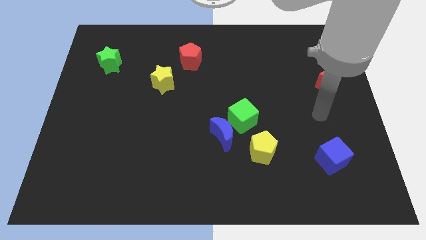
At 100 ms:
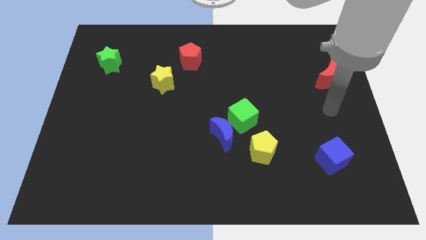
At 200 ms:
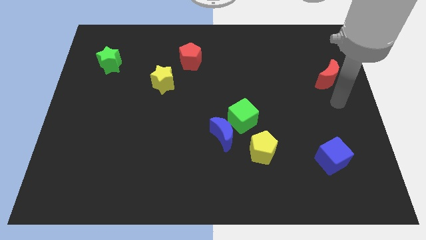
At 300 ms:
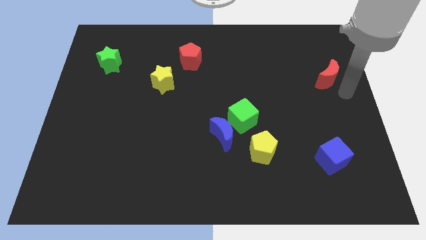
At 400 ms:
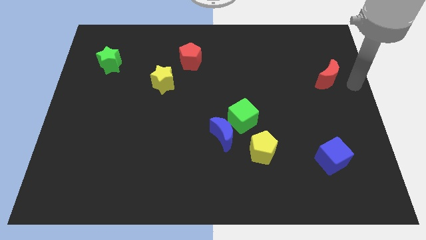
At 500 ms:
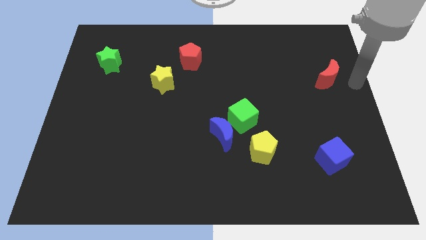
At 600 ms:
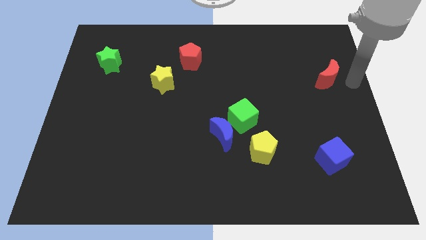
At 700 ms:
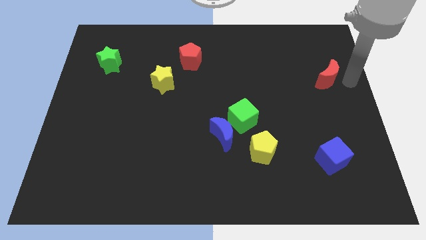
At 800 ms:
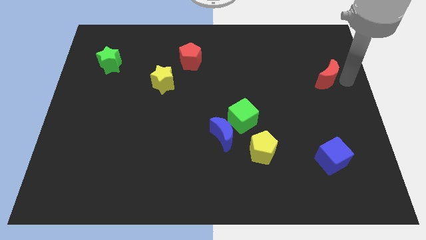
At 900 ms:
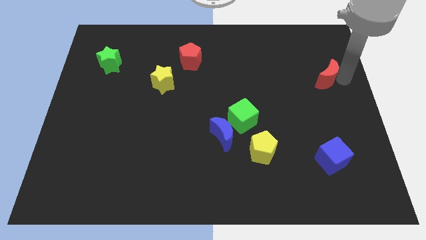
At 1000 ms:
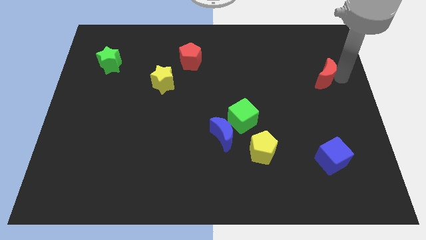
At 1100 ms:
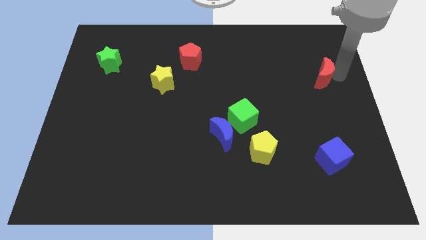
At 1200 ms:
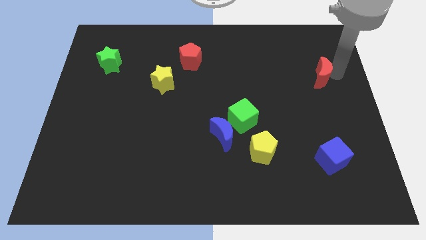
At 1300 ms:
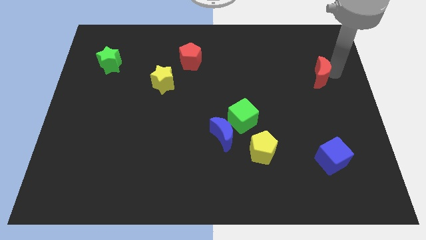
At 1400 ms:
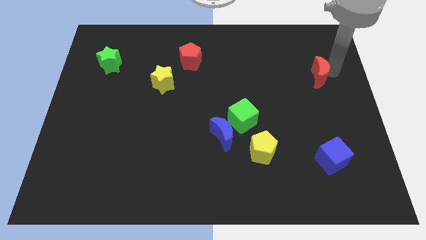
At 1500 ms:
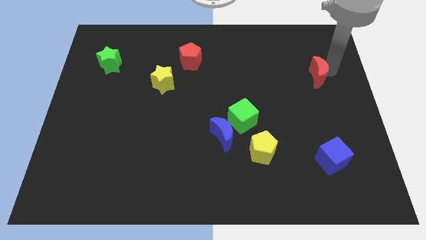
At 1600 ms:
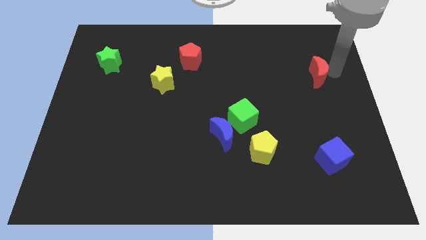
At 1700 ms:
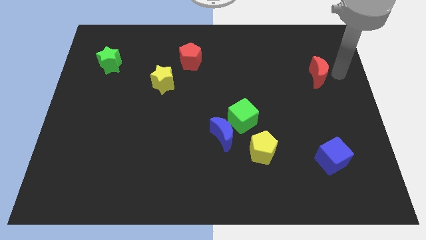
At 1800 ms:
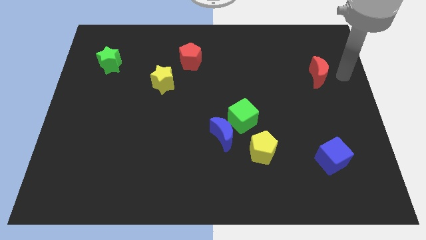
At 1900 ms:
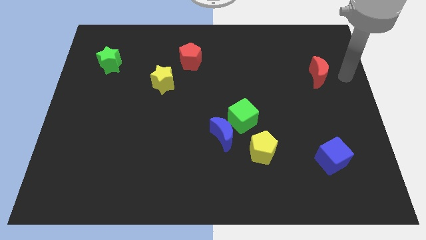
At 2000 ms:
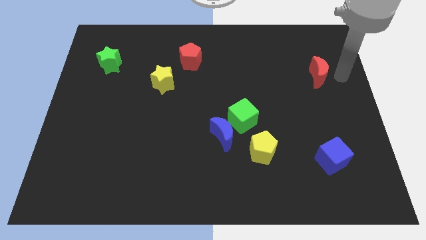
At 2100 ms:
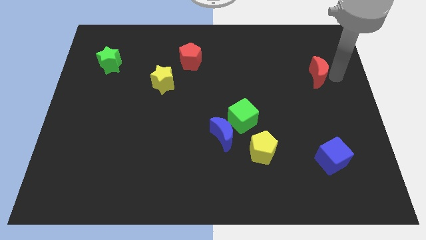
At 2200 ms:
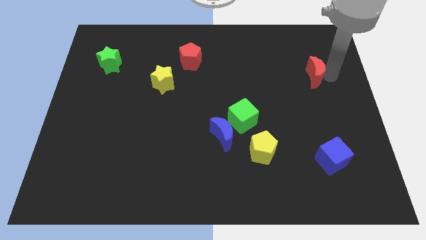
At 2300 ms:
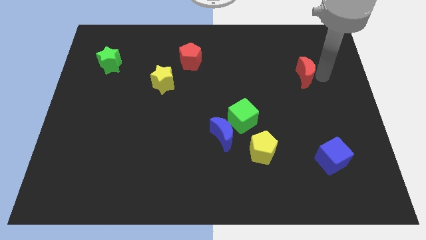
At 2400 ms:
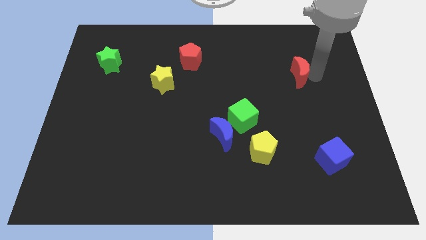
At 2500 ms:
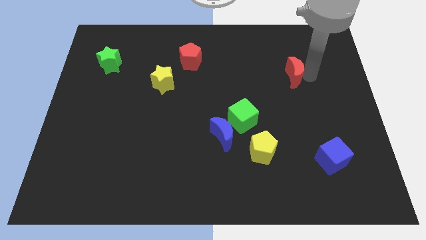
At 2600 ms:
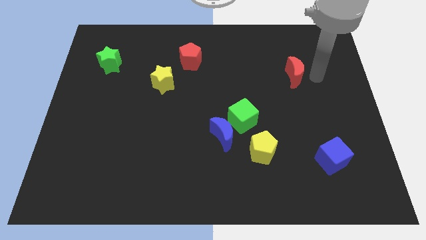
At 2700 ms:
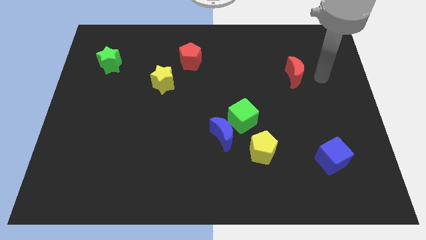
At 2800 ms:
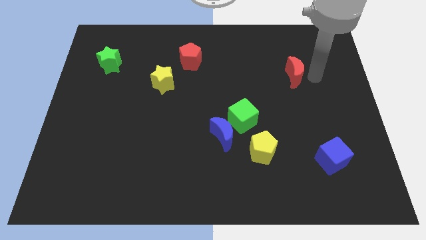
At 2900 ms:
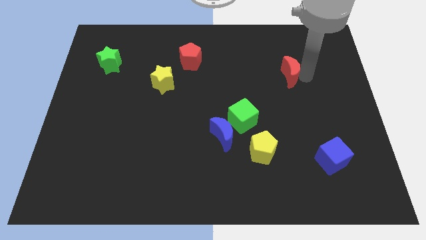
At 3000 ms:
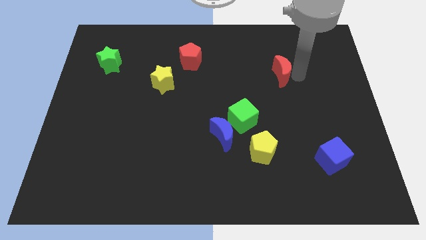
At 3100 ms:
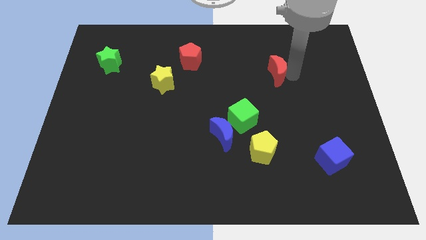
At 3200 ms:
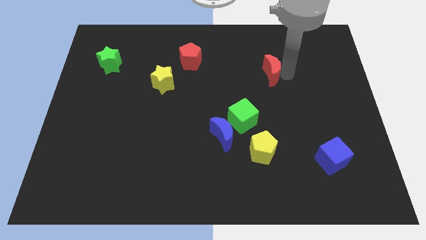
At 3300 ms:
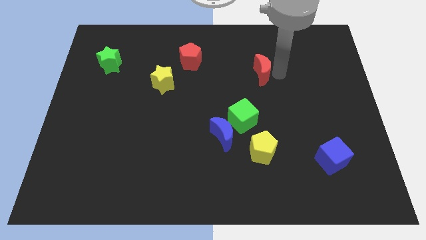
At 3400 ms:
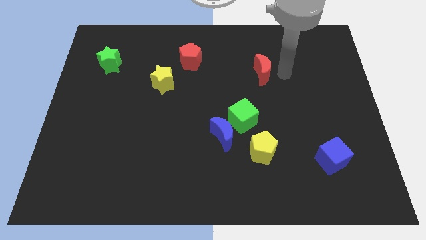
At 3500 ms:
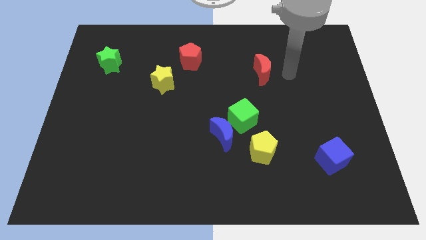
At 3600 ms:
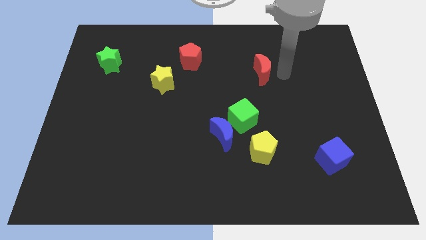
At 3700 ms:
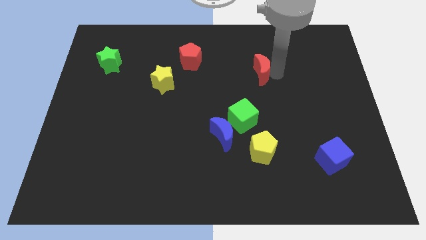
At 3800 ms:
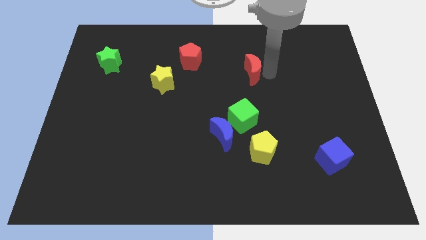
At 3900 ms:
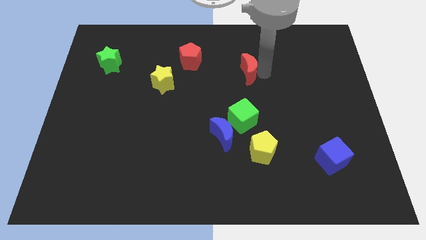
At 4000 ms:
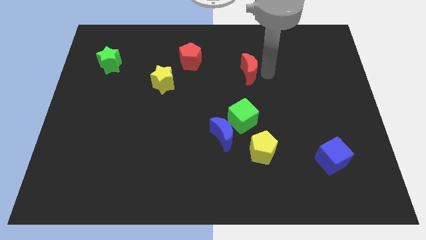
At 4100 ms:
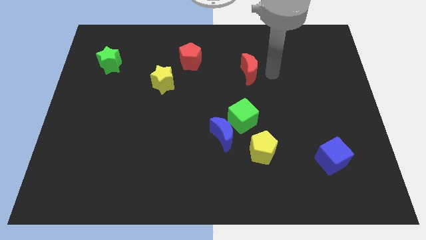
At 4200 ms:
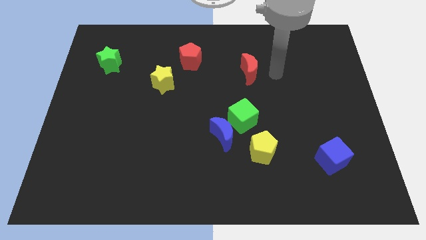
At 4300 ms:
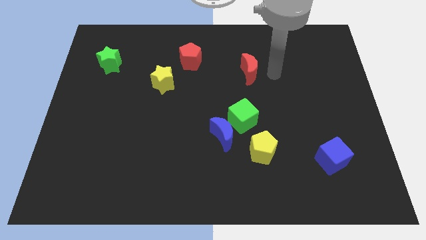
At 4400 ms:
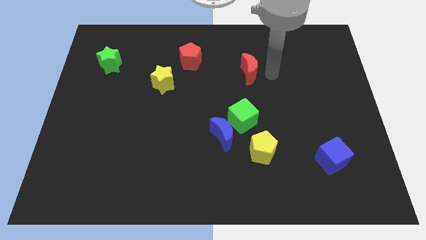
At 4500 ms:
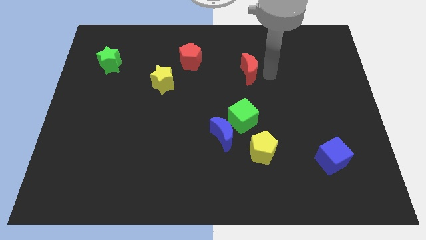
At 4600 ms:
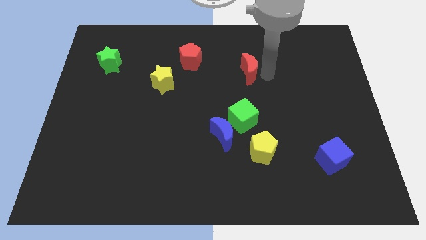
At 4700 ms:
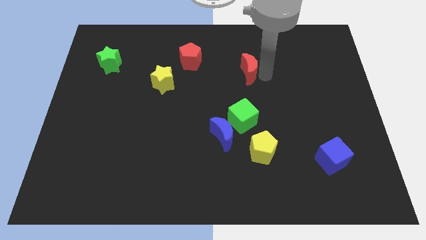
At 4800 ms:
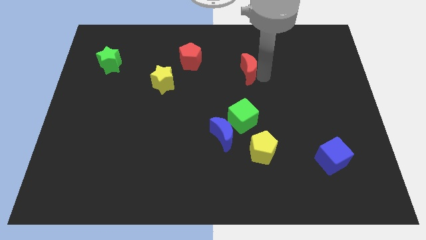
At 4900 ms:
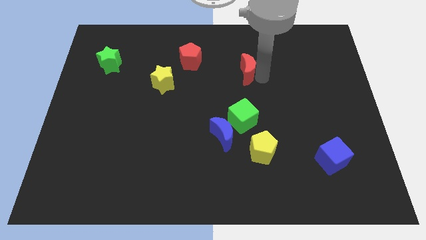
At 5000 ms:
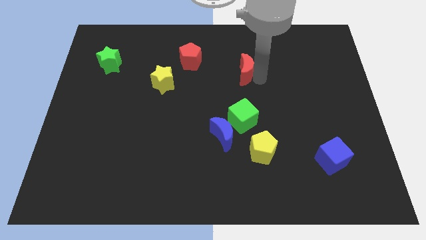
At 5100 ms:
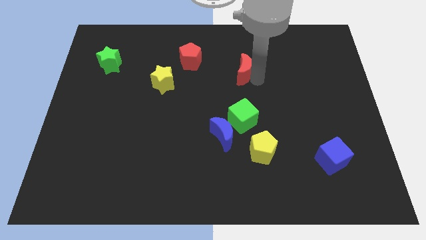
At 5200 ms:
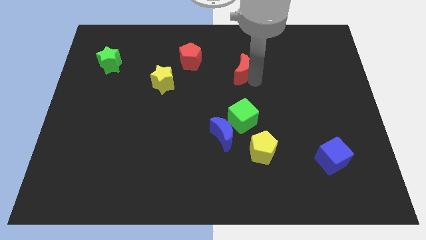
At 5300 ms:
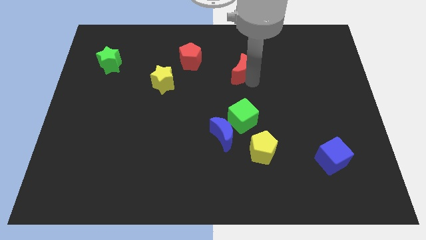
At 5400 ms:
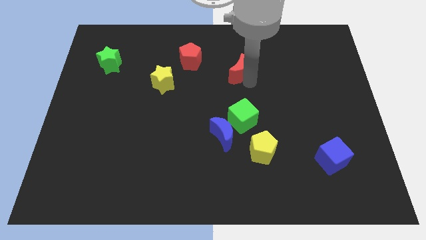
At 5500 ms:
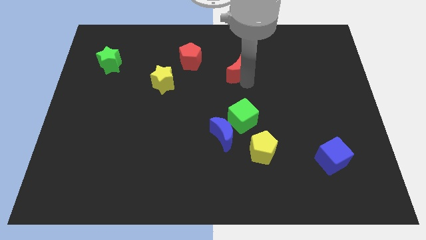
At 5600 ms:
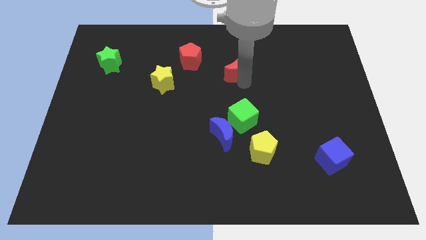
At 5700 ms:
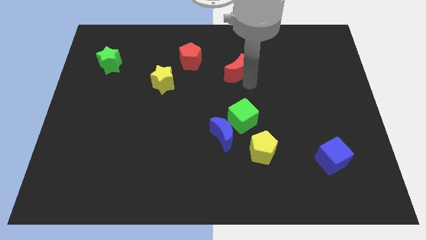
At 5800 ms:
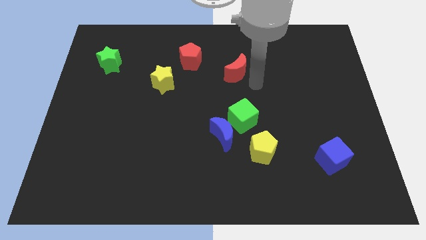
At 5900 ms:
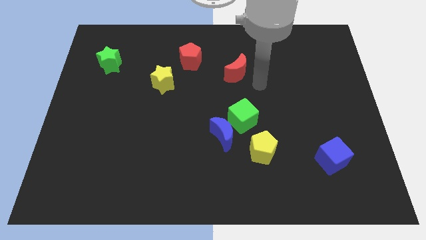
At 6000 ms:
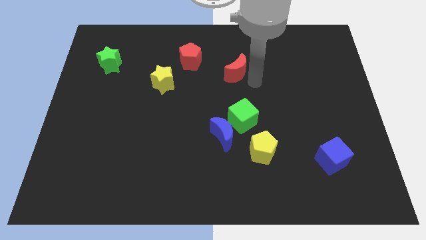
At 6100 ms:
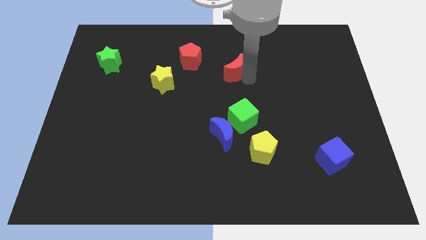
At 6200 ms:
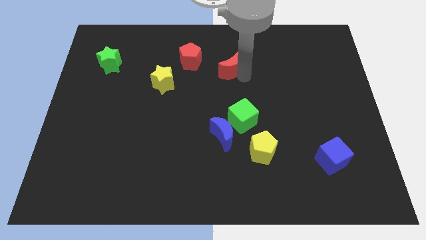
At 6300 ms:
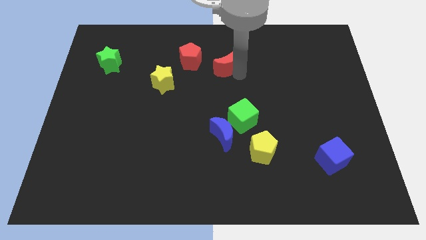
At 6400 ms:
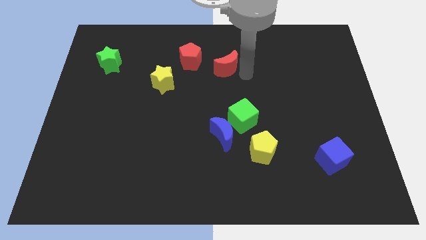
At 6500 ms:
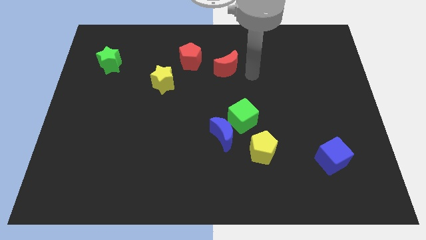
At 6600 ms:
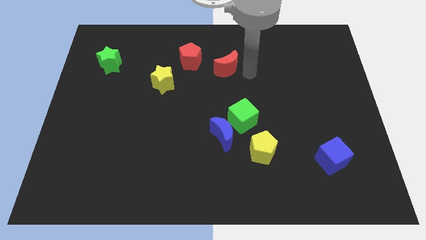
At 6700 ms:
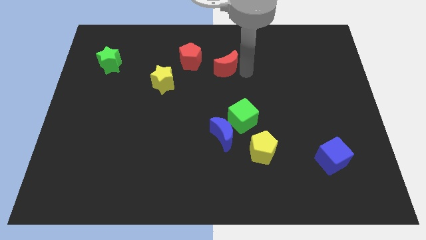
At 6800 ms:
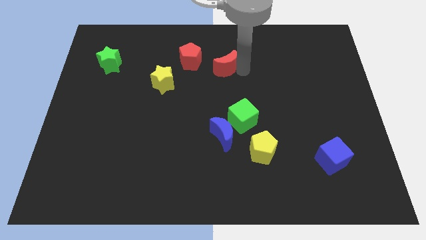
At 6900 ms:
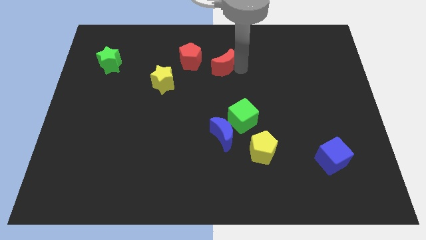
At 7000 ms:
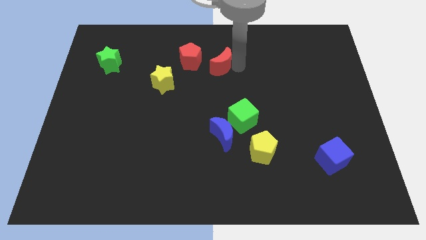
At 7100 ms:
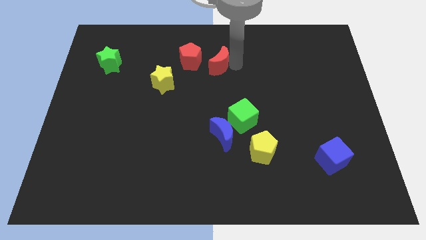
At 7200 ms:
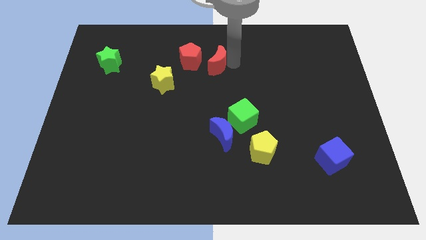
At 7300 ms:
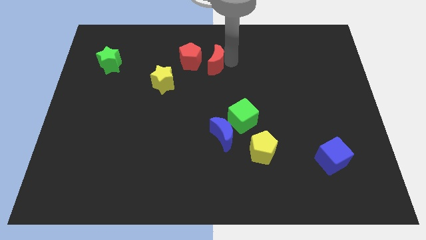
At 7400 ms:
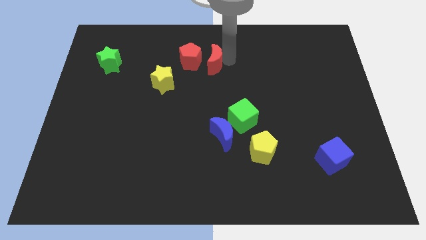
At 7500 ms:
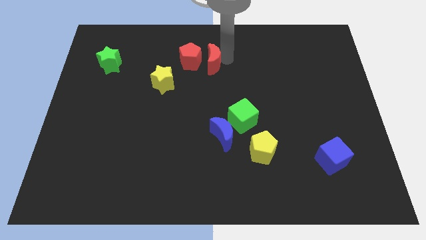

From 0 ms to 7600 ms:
push the red moon towards the red pentagon
